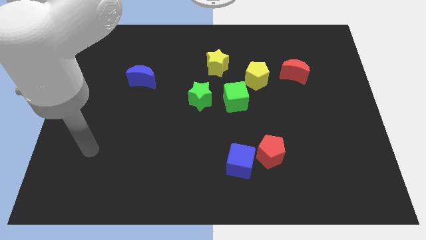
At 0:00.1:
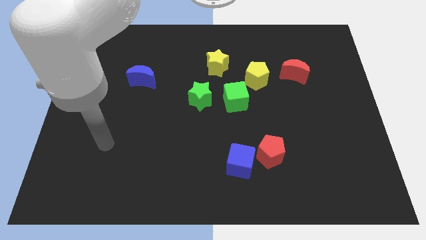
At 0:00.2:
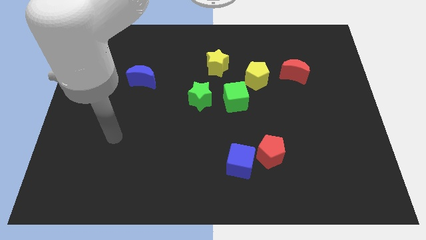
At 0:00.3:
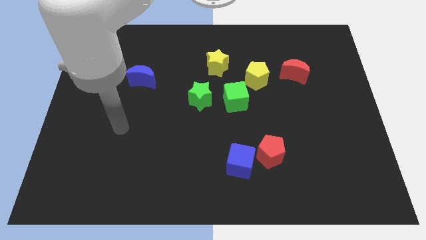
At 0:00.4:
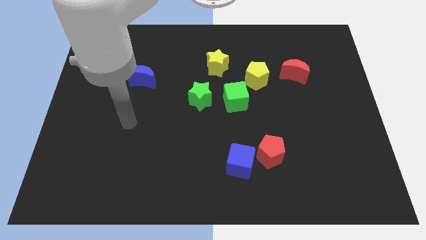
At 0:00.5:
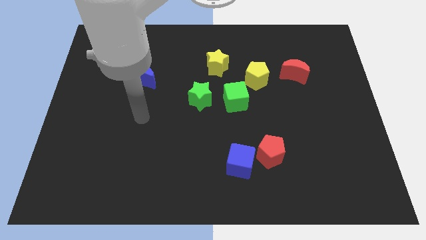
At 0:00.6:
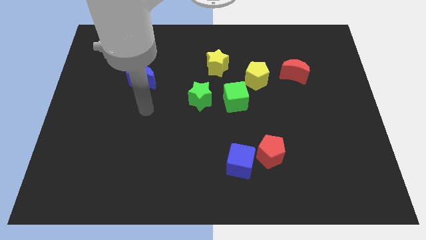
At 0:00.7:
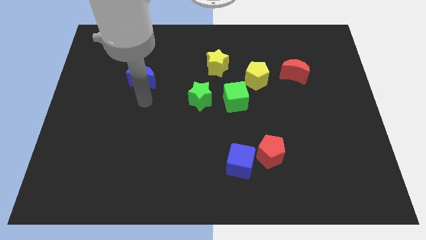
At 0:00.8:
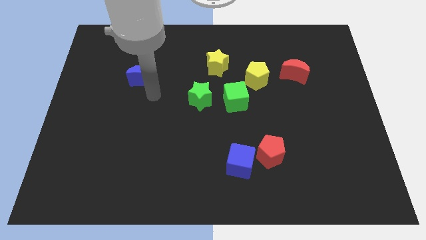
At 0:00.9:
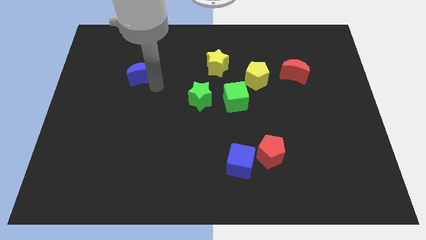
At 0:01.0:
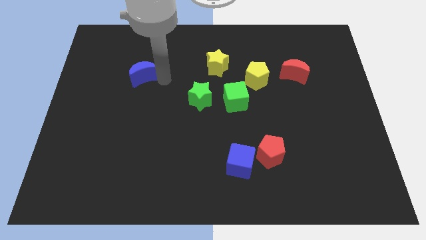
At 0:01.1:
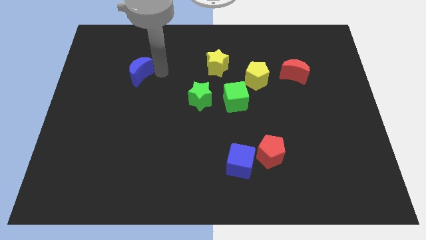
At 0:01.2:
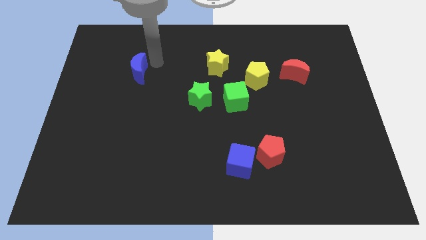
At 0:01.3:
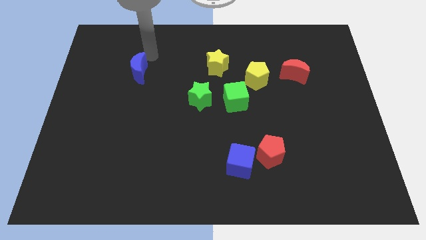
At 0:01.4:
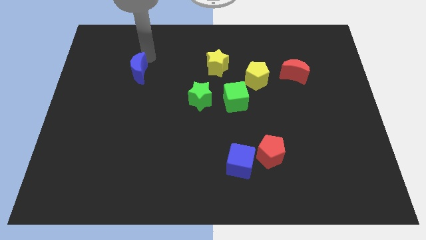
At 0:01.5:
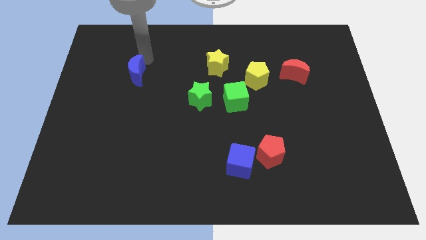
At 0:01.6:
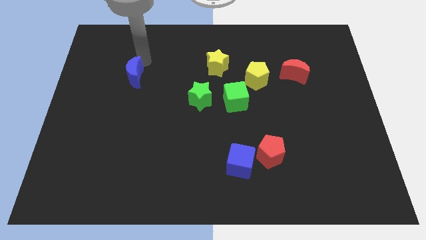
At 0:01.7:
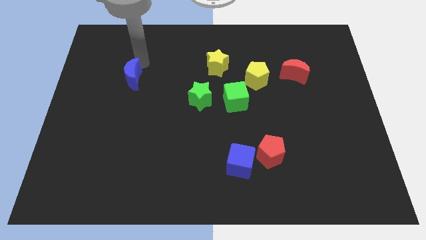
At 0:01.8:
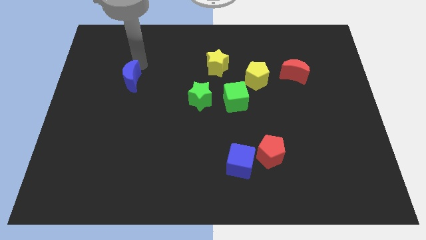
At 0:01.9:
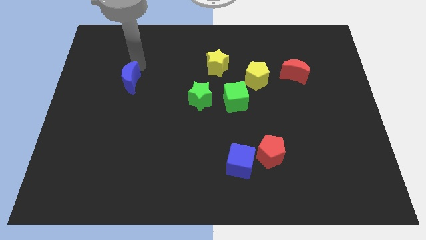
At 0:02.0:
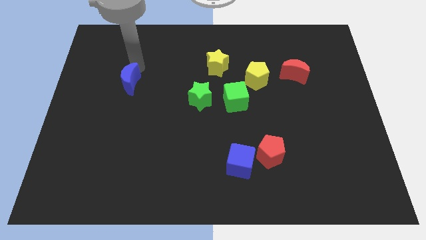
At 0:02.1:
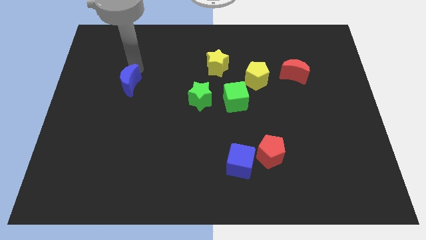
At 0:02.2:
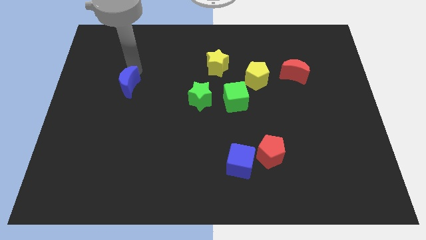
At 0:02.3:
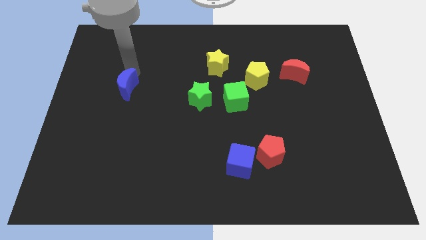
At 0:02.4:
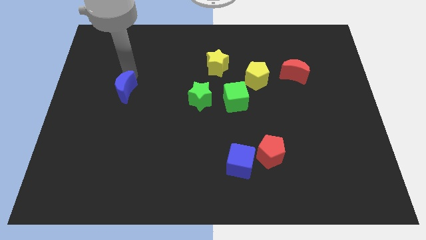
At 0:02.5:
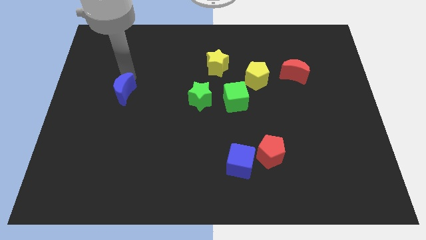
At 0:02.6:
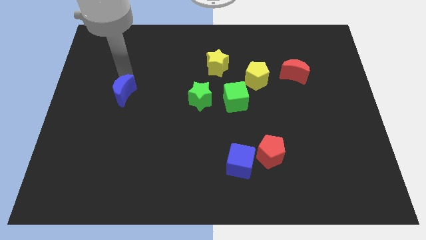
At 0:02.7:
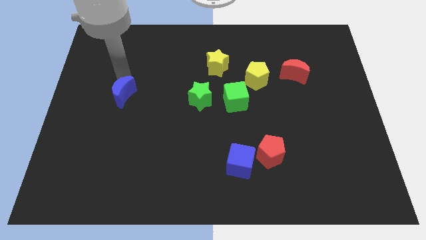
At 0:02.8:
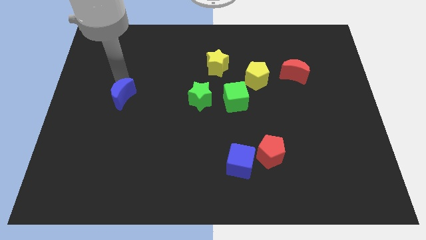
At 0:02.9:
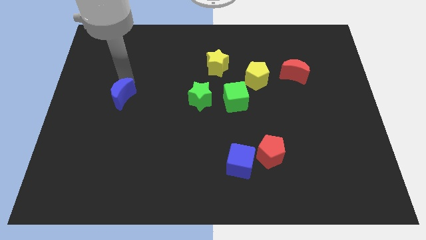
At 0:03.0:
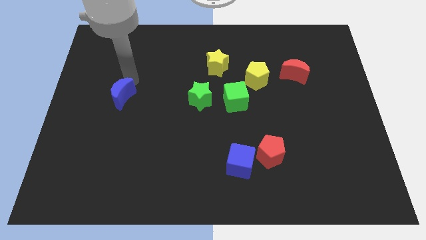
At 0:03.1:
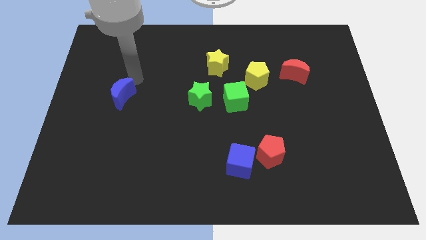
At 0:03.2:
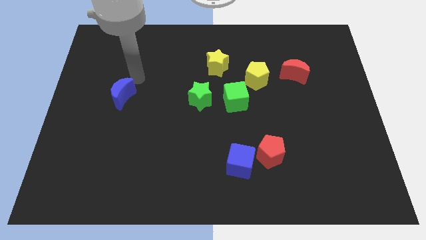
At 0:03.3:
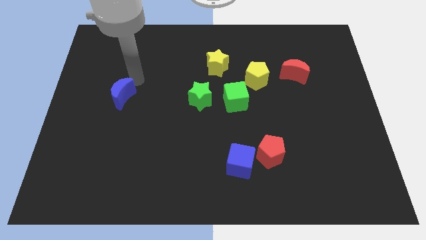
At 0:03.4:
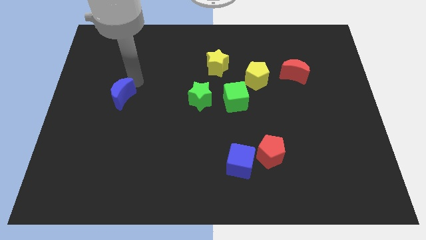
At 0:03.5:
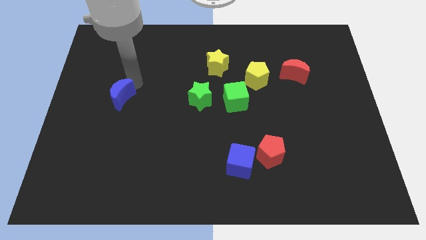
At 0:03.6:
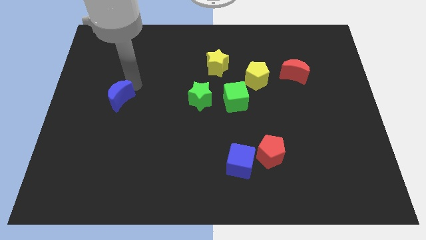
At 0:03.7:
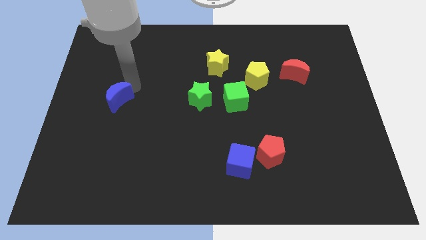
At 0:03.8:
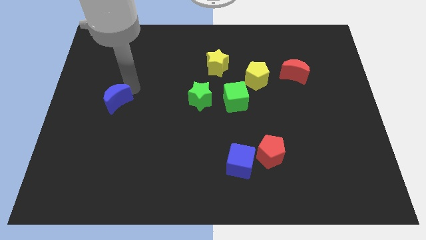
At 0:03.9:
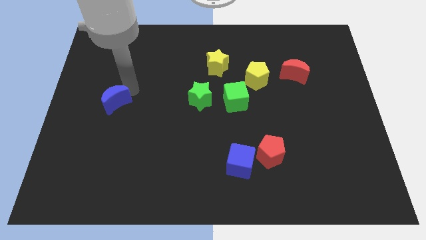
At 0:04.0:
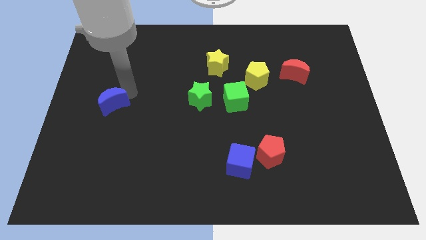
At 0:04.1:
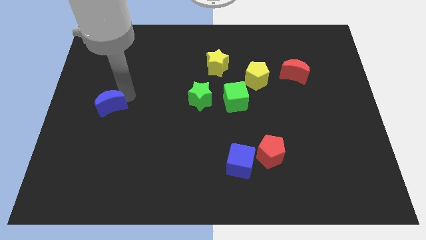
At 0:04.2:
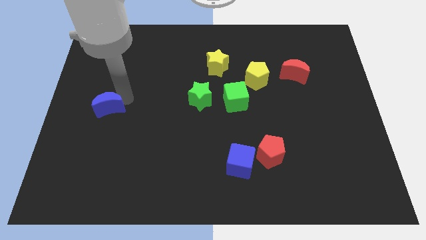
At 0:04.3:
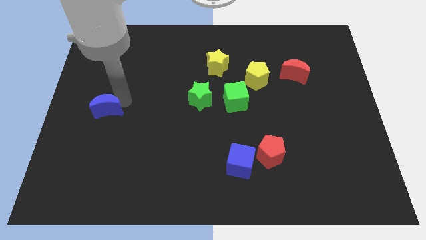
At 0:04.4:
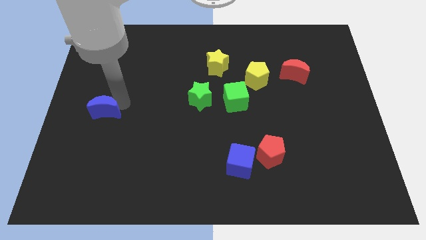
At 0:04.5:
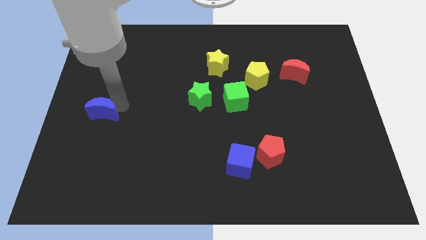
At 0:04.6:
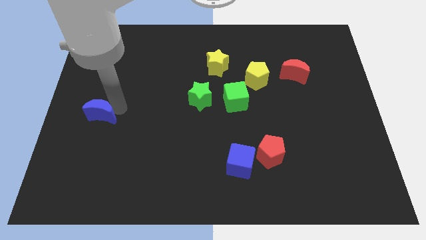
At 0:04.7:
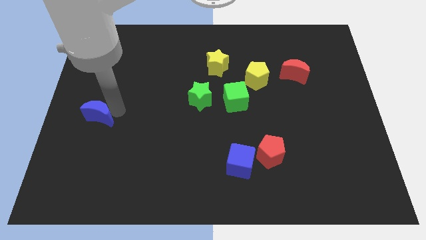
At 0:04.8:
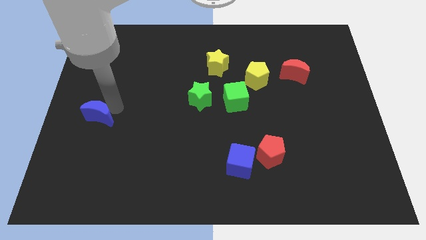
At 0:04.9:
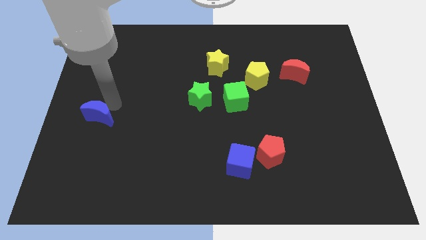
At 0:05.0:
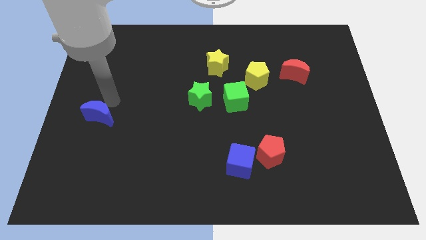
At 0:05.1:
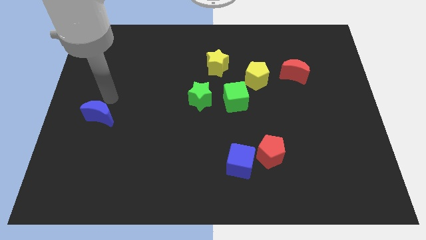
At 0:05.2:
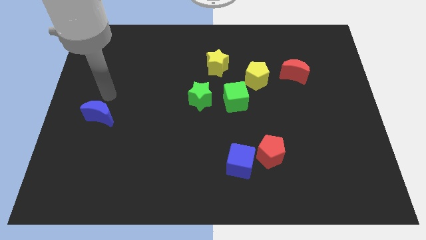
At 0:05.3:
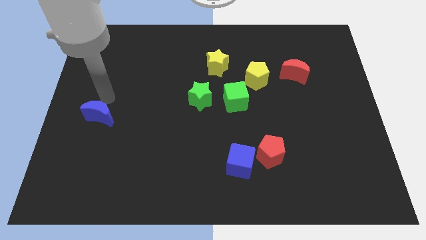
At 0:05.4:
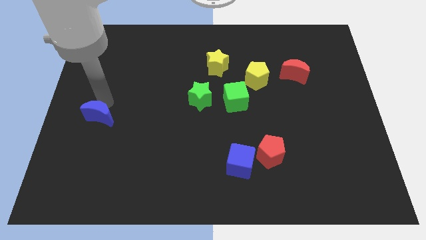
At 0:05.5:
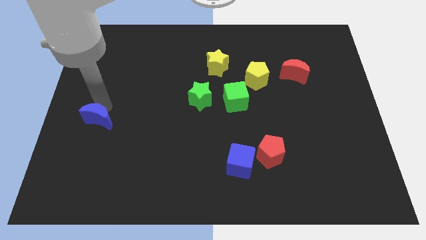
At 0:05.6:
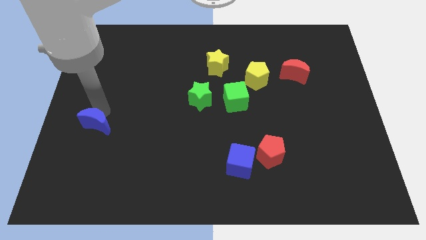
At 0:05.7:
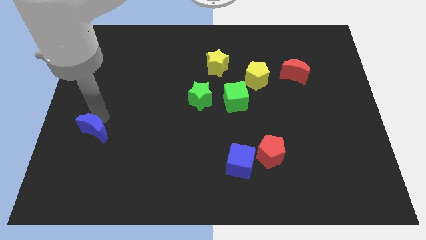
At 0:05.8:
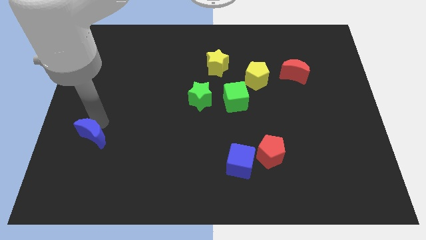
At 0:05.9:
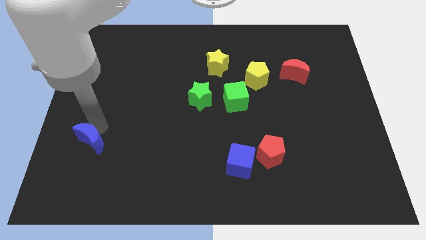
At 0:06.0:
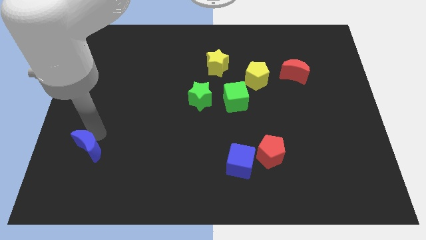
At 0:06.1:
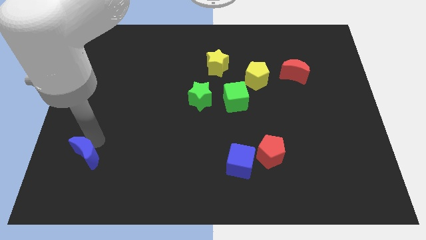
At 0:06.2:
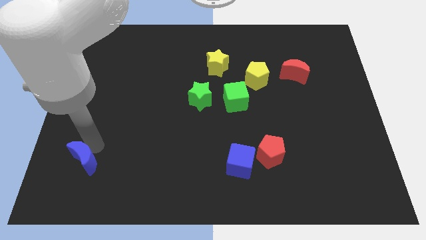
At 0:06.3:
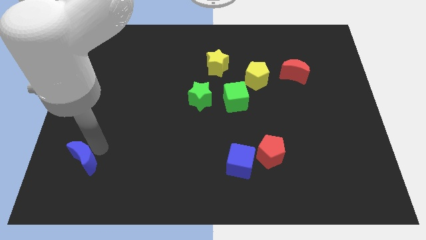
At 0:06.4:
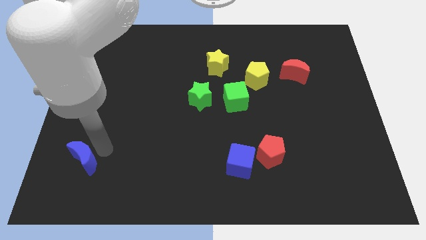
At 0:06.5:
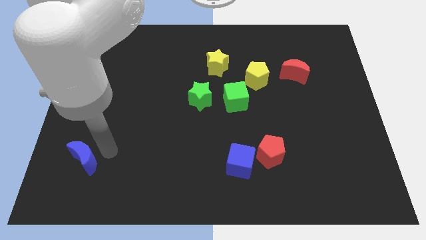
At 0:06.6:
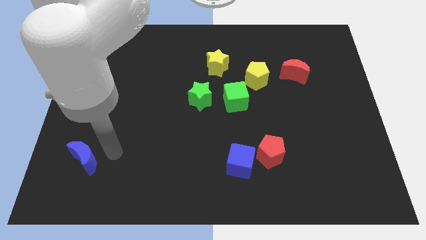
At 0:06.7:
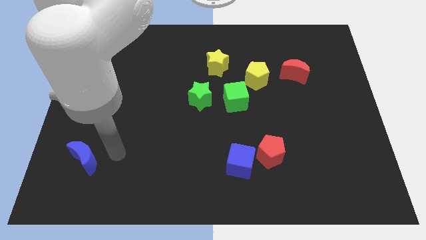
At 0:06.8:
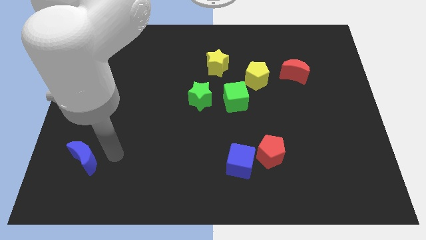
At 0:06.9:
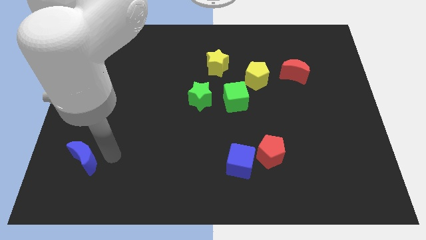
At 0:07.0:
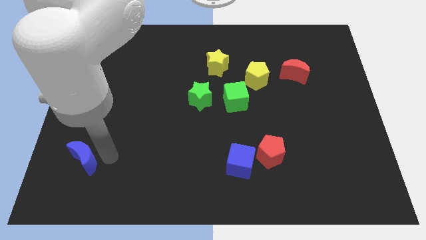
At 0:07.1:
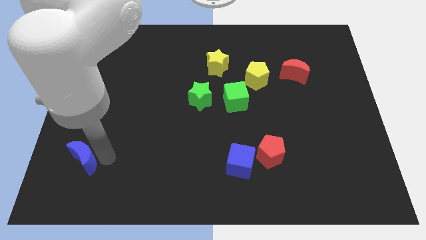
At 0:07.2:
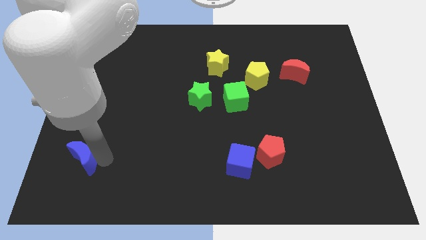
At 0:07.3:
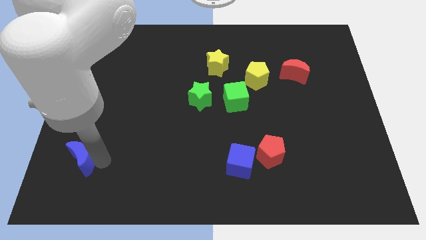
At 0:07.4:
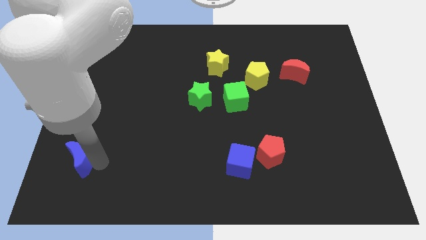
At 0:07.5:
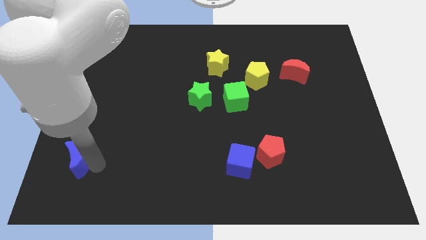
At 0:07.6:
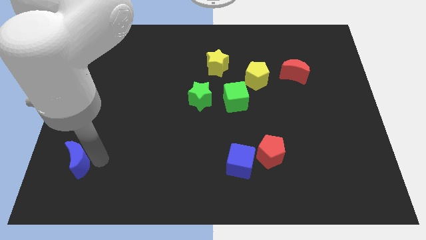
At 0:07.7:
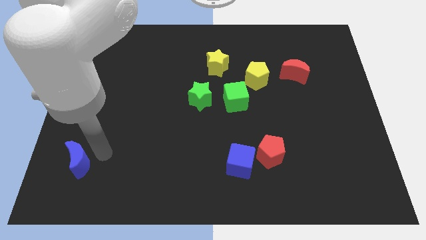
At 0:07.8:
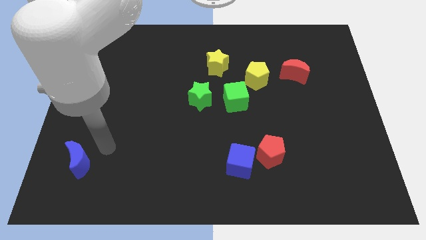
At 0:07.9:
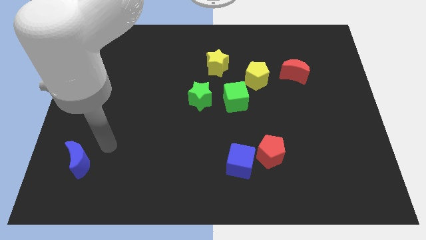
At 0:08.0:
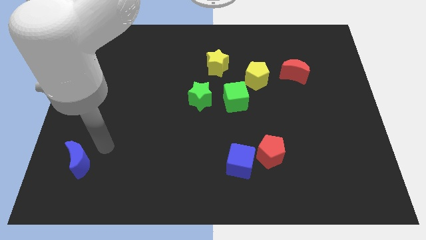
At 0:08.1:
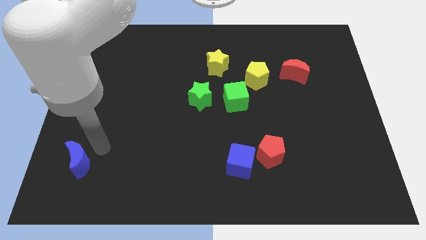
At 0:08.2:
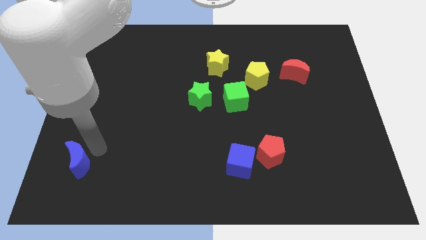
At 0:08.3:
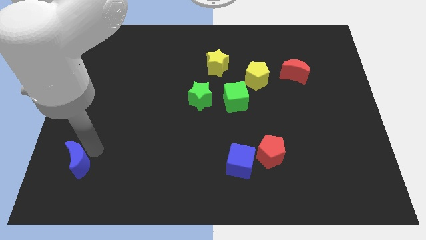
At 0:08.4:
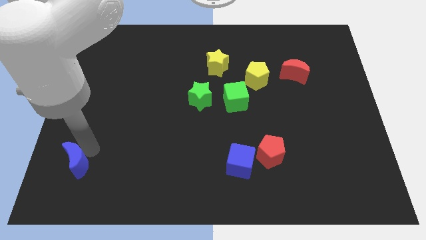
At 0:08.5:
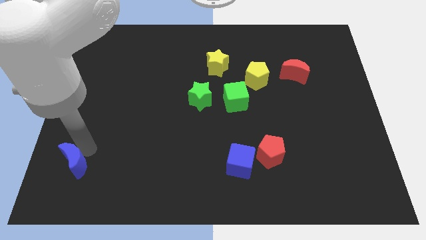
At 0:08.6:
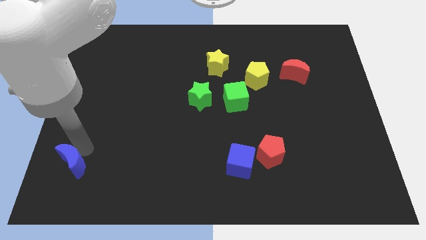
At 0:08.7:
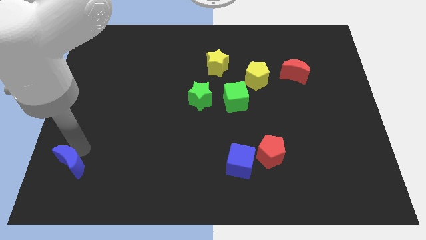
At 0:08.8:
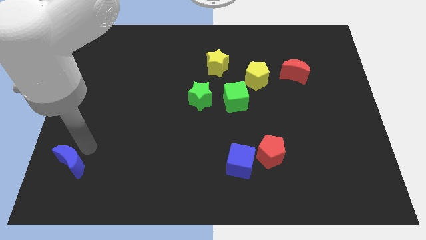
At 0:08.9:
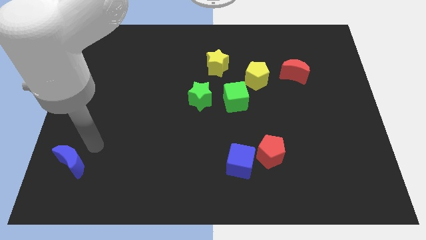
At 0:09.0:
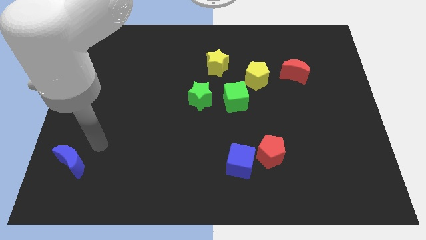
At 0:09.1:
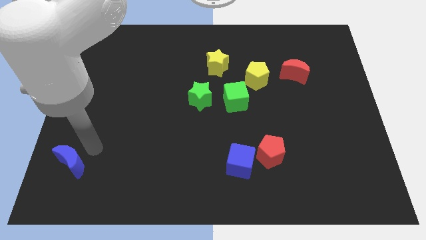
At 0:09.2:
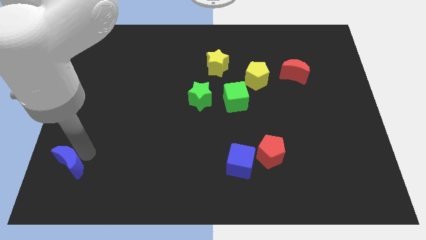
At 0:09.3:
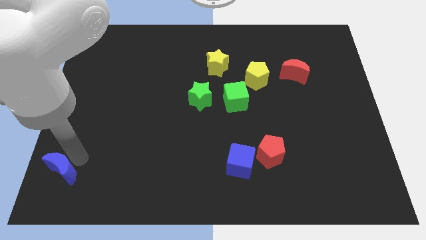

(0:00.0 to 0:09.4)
slide the blue moon to the bottom left of the board
